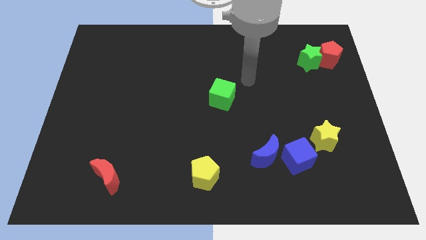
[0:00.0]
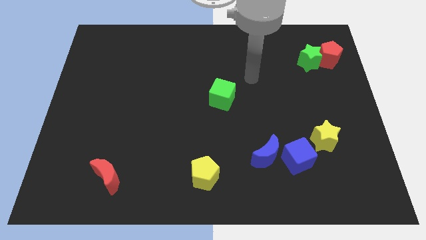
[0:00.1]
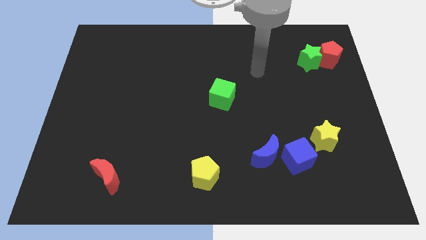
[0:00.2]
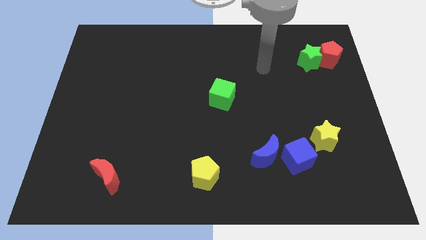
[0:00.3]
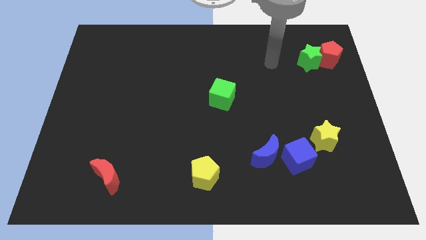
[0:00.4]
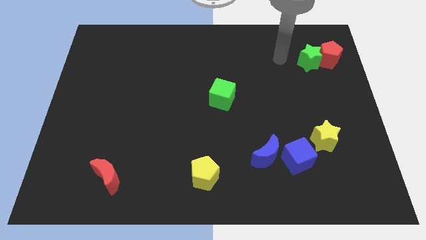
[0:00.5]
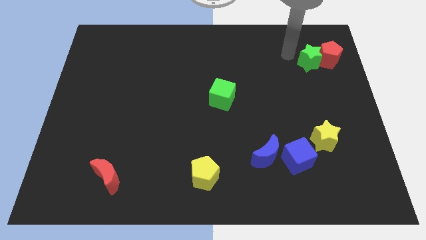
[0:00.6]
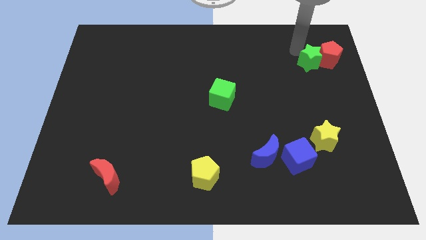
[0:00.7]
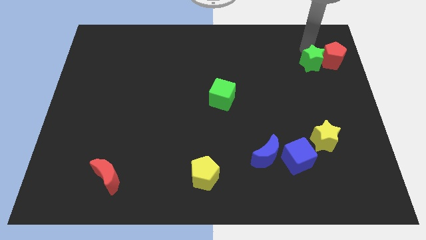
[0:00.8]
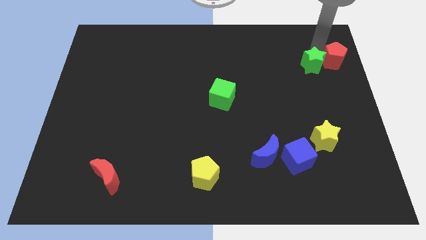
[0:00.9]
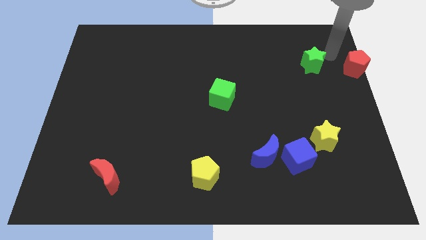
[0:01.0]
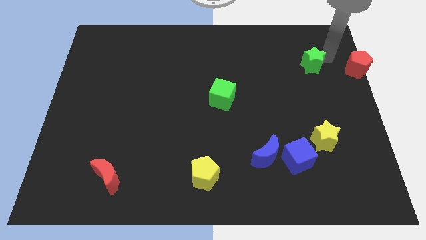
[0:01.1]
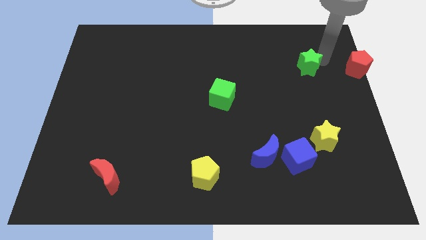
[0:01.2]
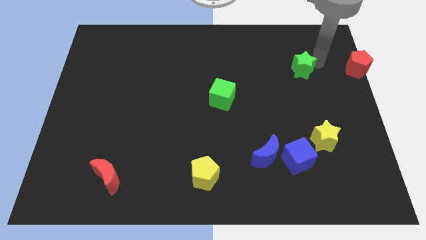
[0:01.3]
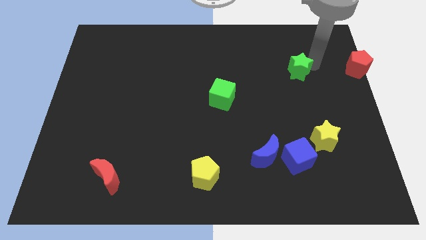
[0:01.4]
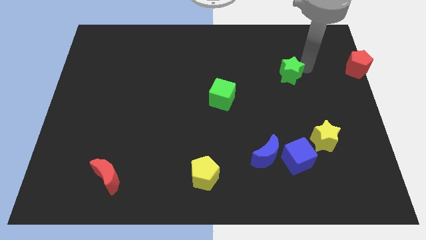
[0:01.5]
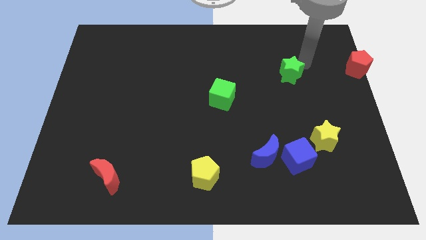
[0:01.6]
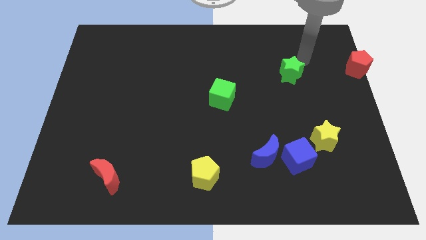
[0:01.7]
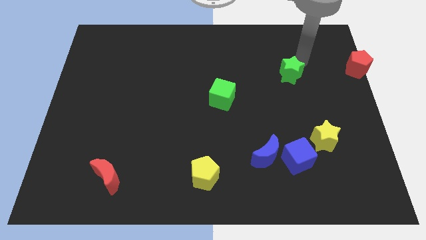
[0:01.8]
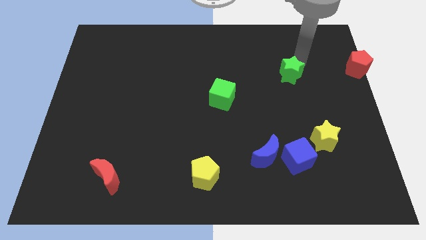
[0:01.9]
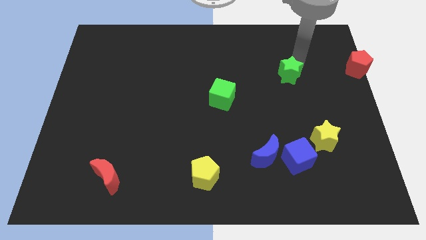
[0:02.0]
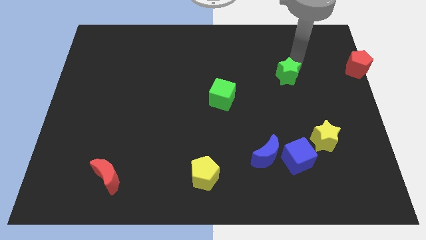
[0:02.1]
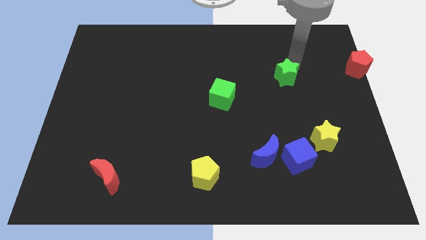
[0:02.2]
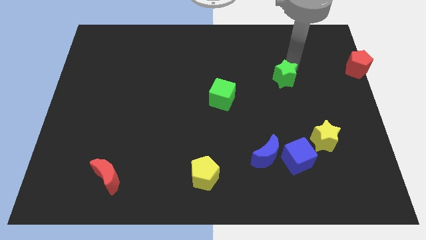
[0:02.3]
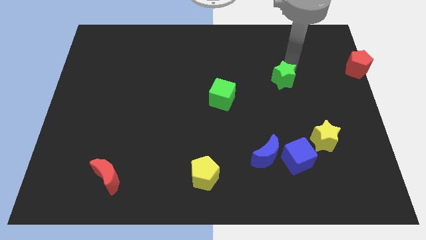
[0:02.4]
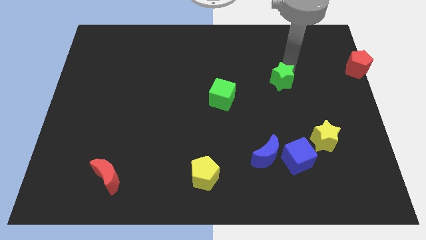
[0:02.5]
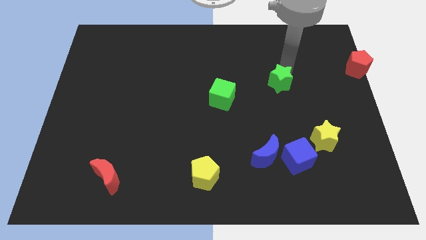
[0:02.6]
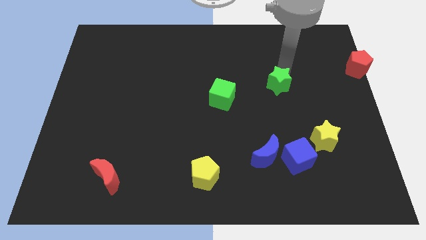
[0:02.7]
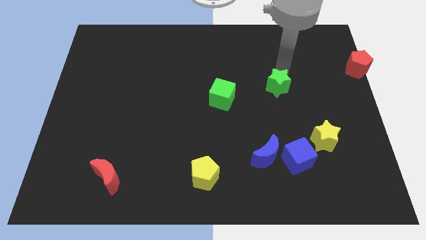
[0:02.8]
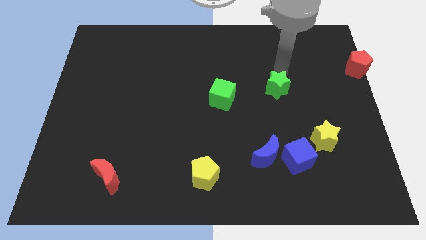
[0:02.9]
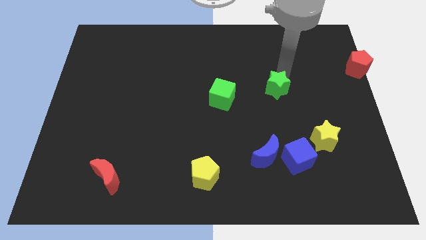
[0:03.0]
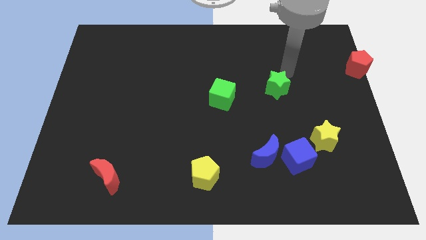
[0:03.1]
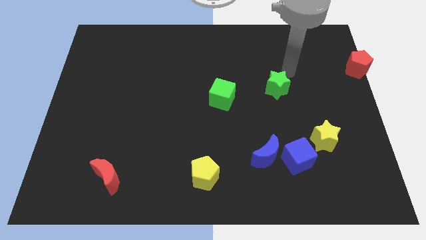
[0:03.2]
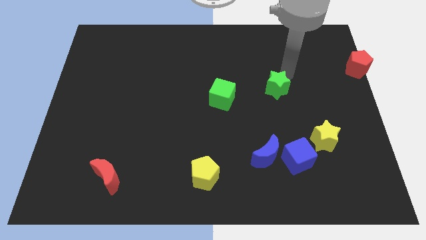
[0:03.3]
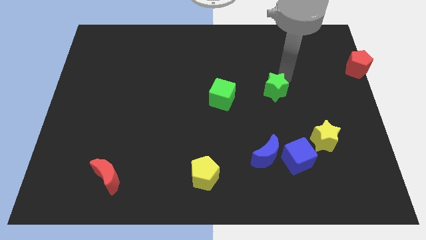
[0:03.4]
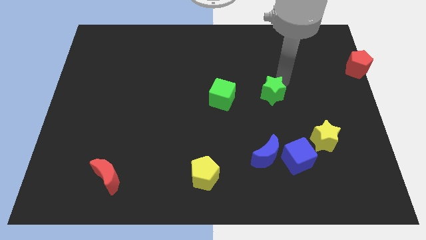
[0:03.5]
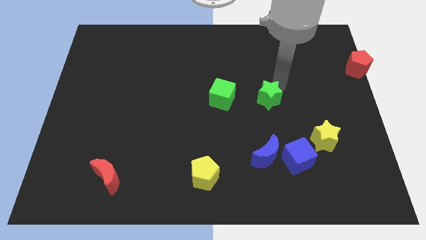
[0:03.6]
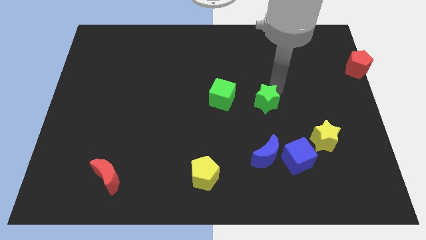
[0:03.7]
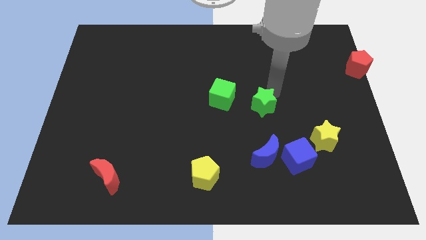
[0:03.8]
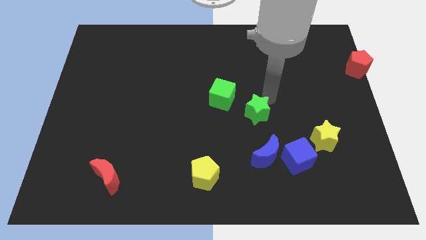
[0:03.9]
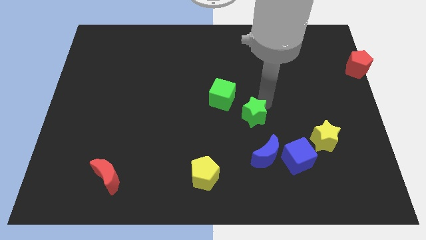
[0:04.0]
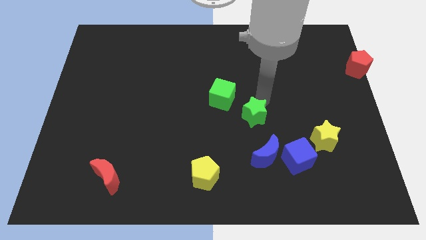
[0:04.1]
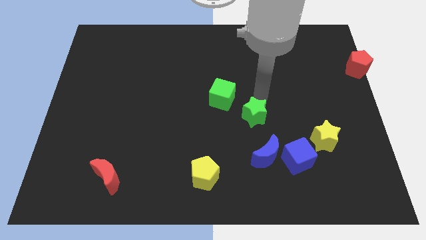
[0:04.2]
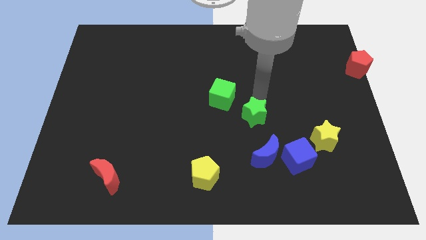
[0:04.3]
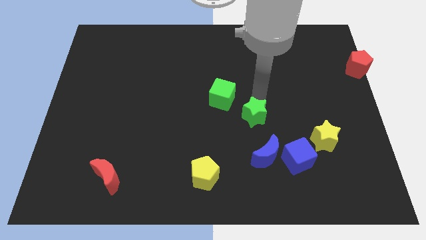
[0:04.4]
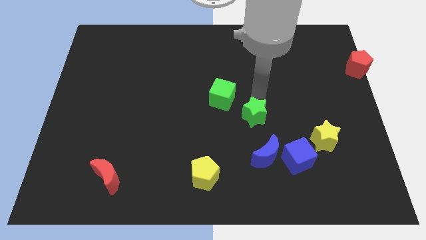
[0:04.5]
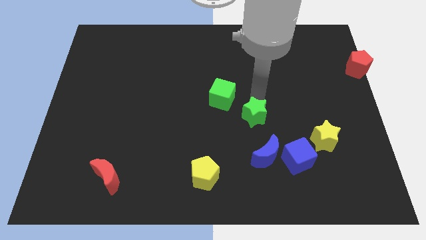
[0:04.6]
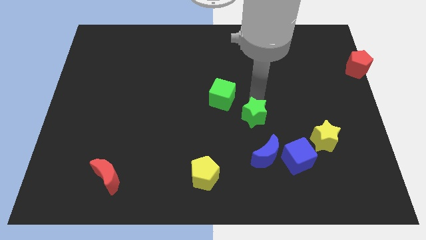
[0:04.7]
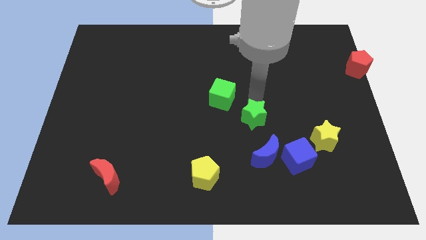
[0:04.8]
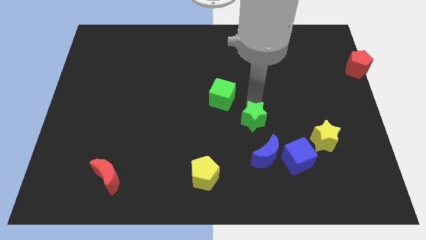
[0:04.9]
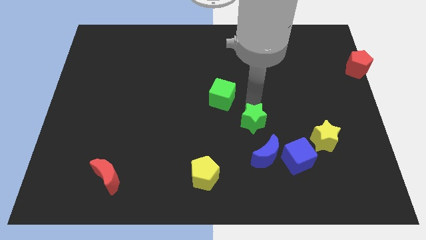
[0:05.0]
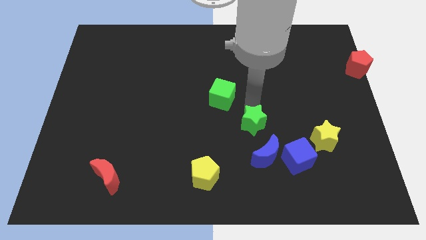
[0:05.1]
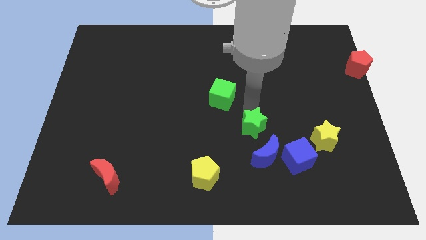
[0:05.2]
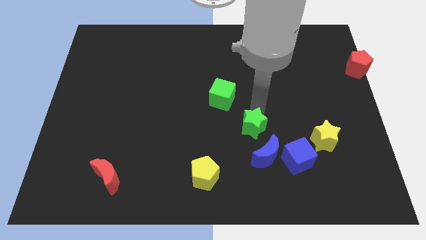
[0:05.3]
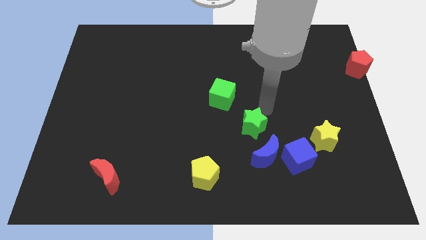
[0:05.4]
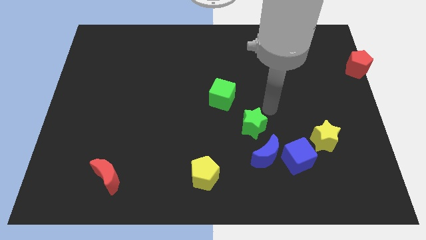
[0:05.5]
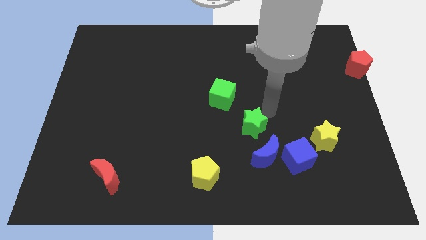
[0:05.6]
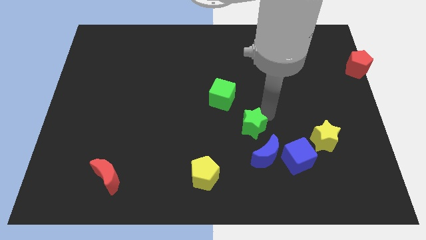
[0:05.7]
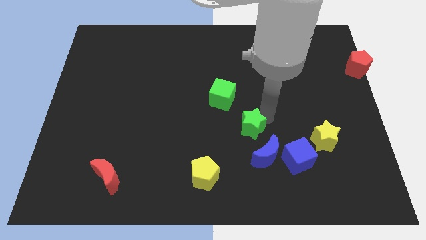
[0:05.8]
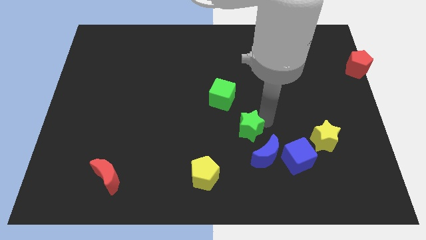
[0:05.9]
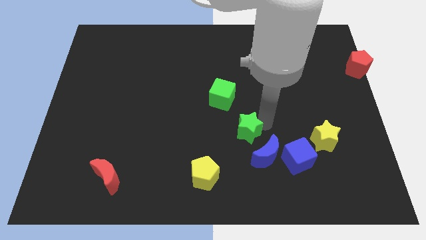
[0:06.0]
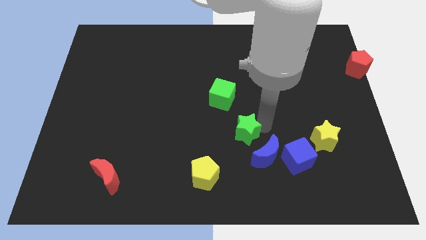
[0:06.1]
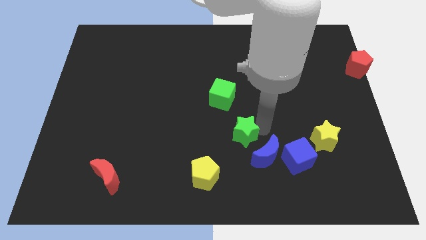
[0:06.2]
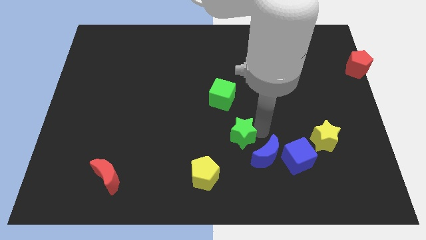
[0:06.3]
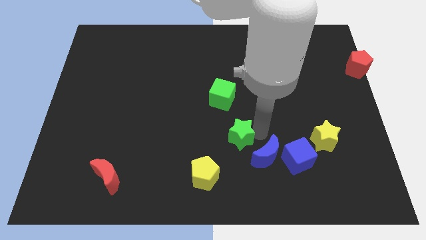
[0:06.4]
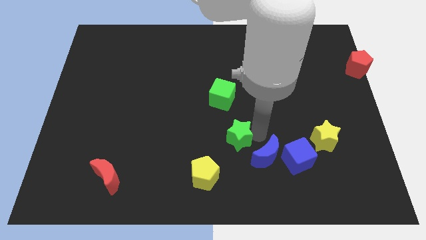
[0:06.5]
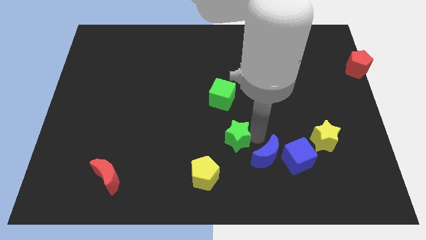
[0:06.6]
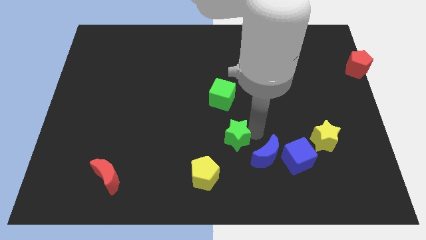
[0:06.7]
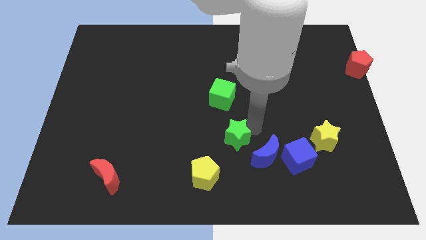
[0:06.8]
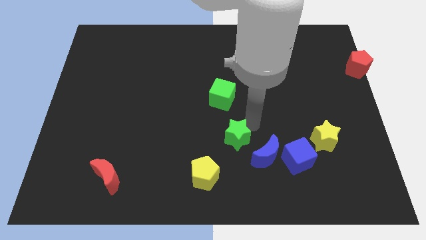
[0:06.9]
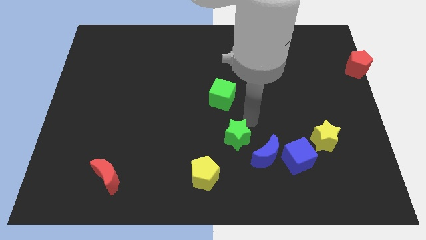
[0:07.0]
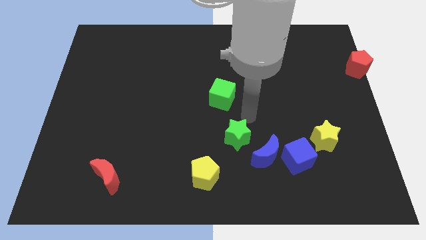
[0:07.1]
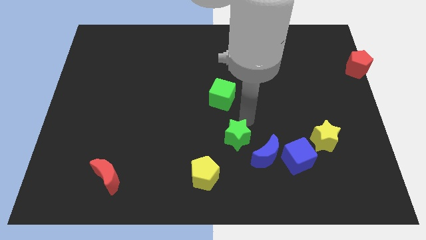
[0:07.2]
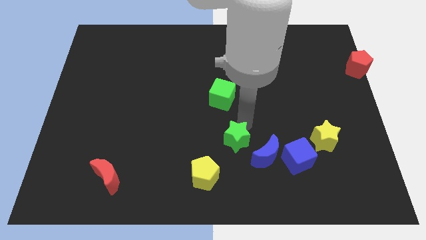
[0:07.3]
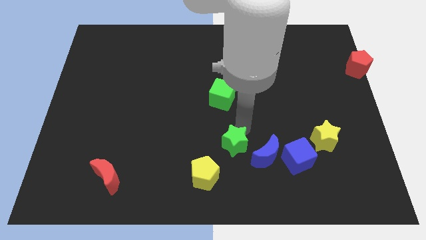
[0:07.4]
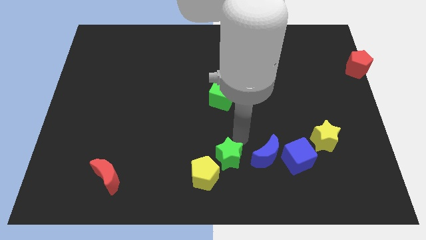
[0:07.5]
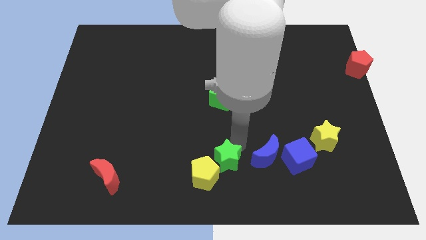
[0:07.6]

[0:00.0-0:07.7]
put the green star to the yellow pentagon
